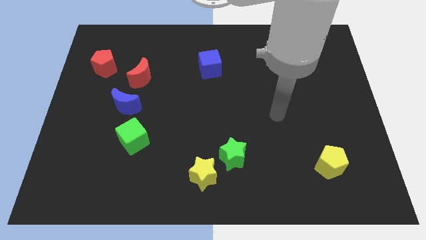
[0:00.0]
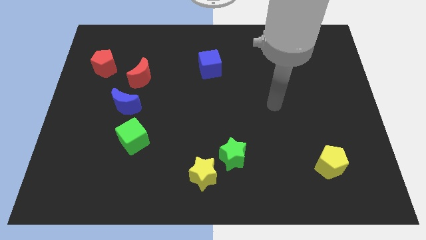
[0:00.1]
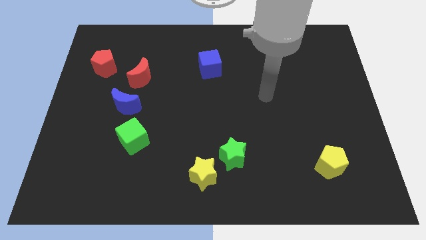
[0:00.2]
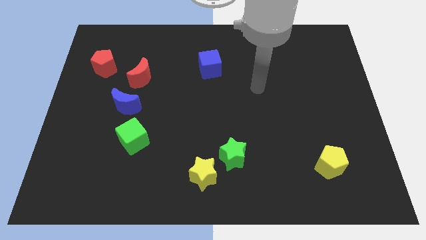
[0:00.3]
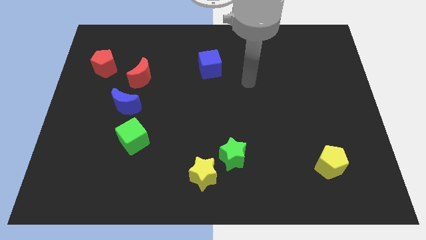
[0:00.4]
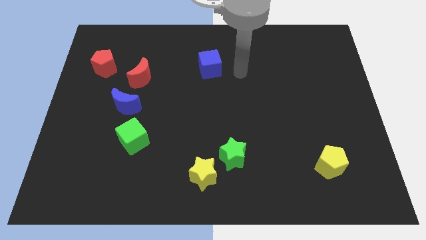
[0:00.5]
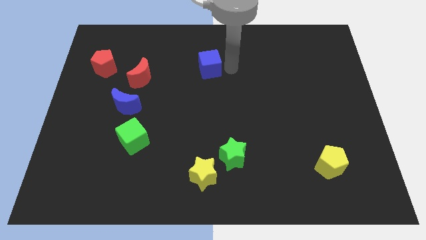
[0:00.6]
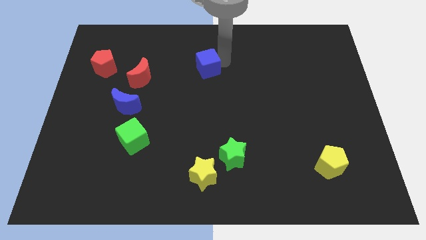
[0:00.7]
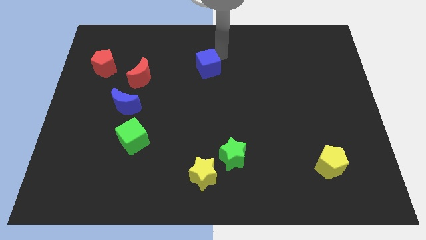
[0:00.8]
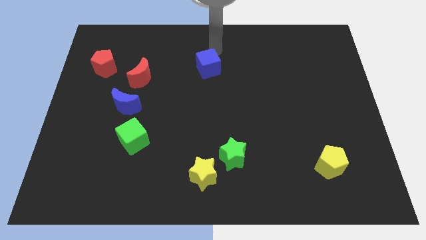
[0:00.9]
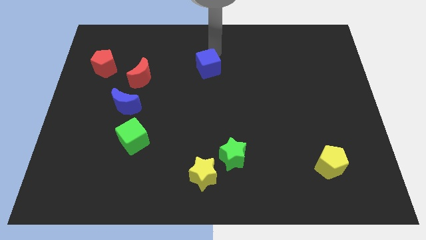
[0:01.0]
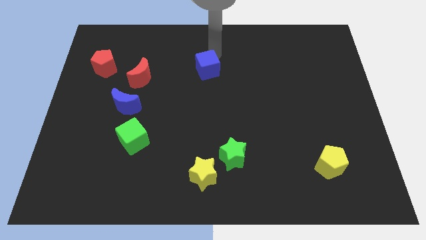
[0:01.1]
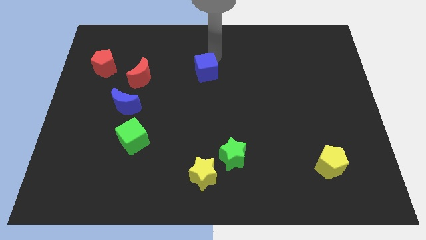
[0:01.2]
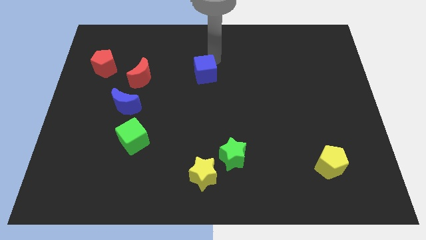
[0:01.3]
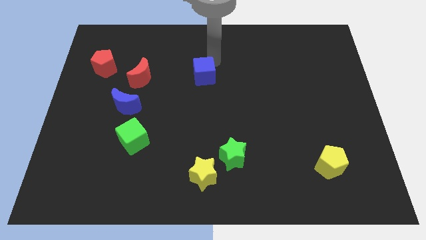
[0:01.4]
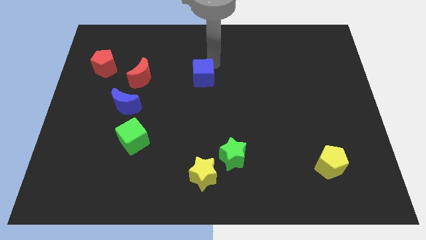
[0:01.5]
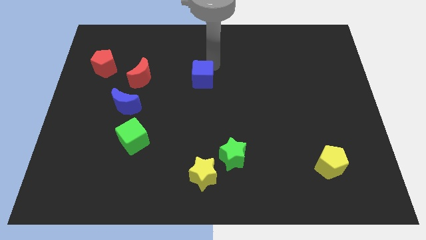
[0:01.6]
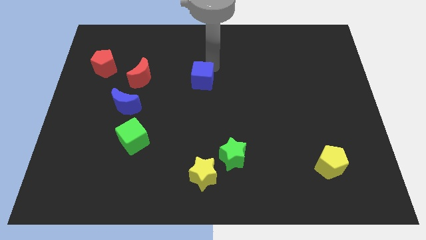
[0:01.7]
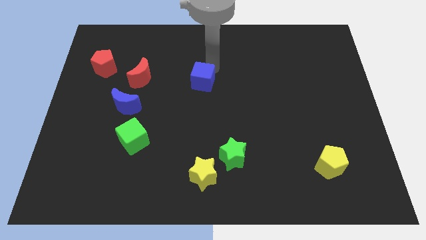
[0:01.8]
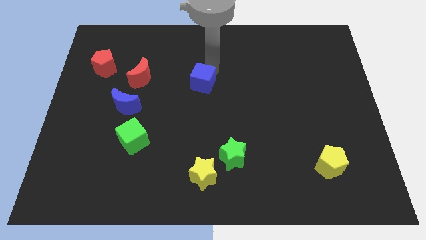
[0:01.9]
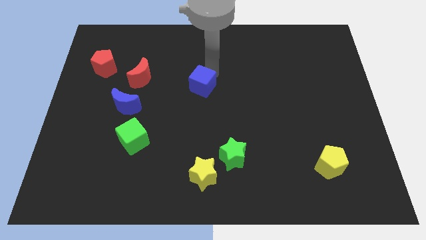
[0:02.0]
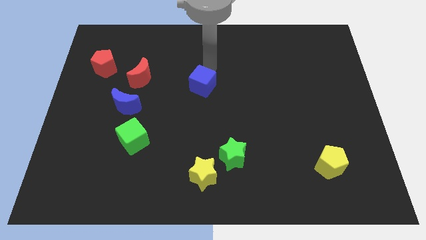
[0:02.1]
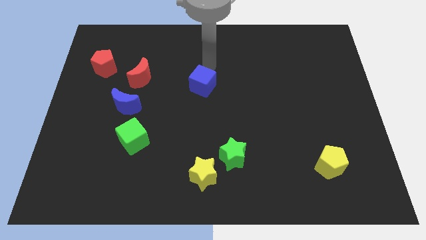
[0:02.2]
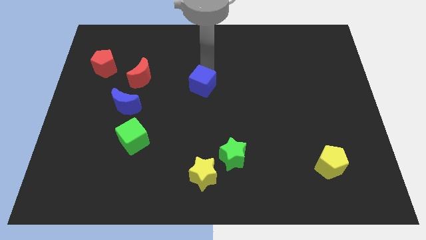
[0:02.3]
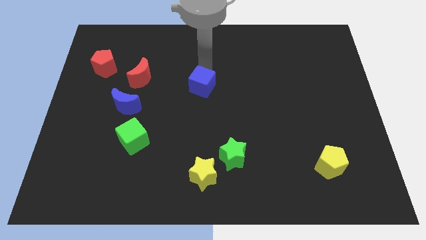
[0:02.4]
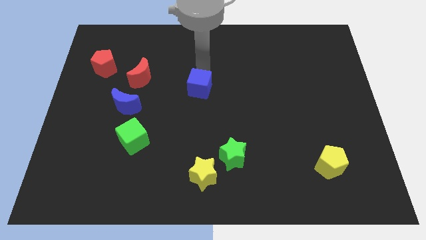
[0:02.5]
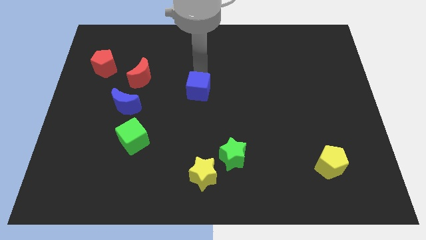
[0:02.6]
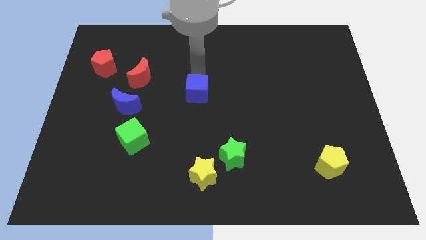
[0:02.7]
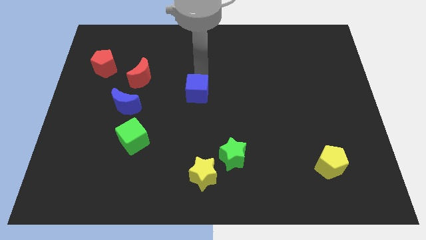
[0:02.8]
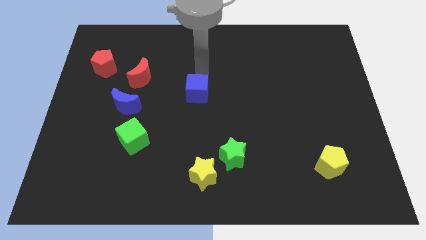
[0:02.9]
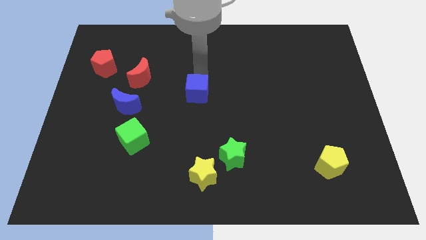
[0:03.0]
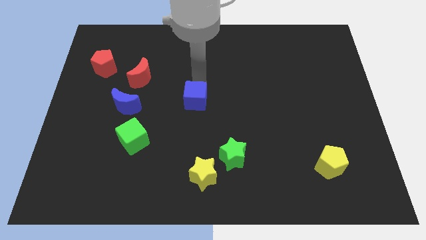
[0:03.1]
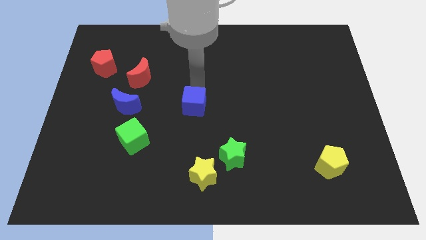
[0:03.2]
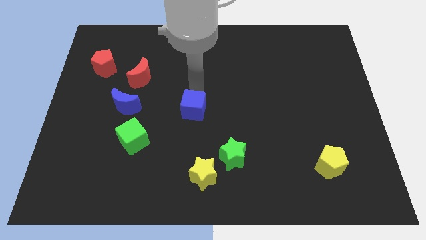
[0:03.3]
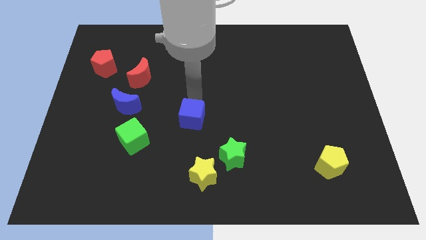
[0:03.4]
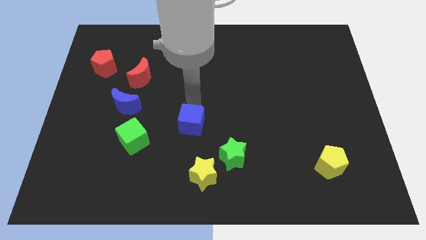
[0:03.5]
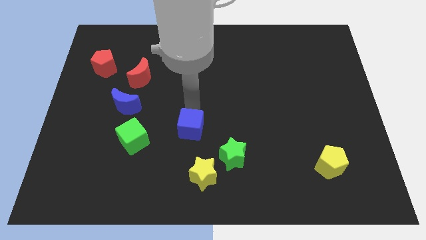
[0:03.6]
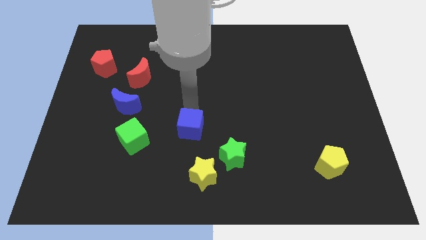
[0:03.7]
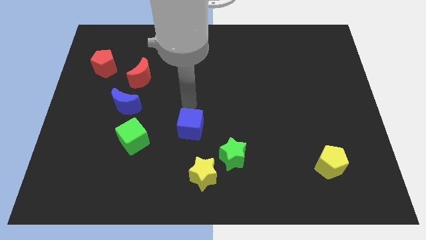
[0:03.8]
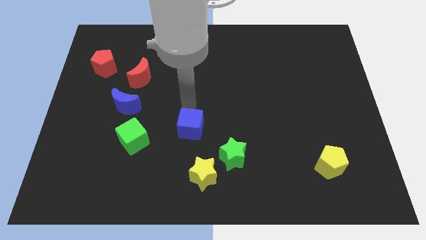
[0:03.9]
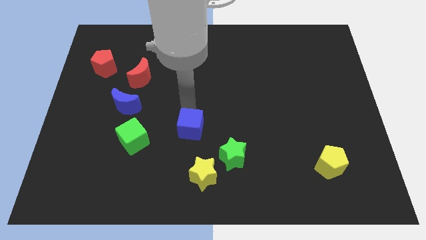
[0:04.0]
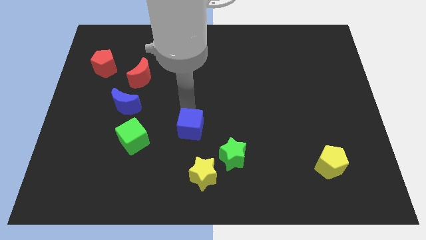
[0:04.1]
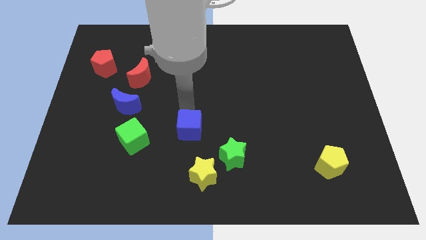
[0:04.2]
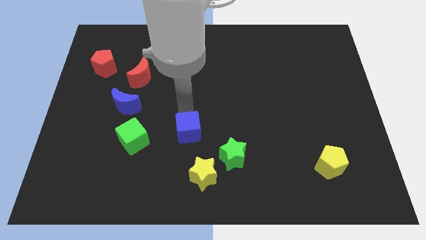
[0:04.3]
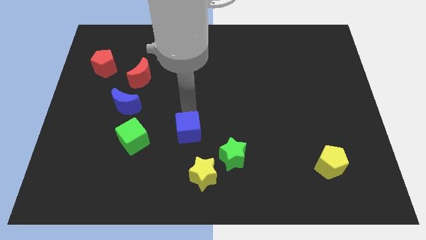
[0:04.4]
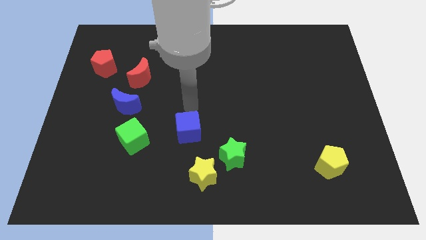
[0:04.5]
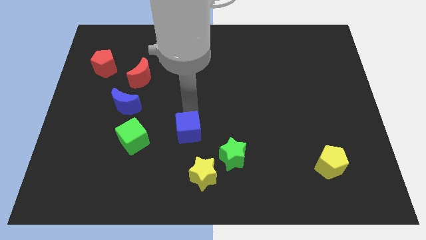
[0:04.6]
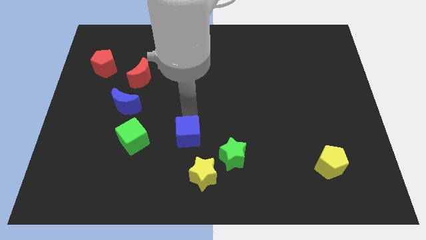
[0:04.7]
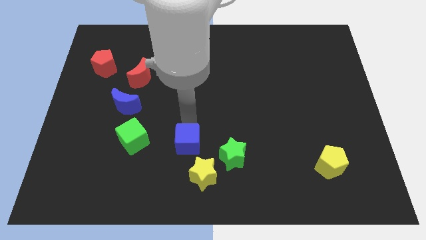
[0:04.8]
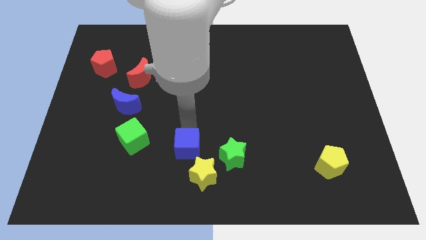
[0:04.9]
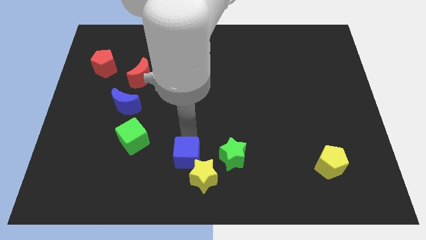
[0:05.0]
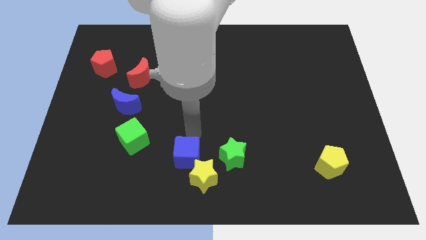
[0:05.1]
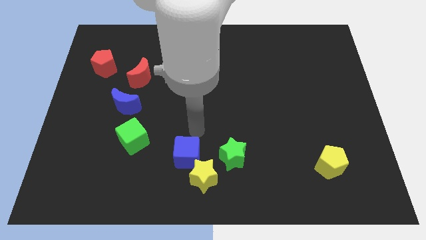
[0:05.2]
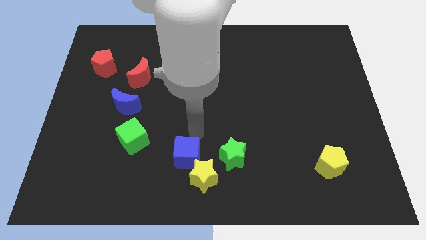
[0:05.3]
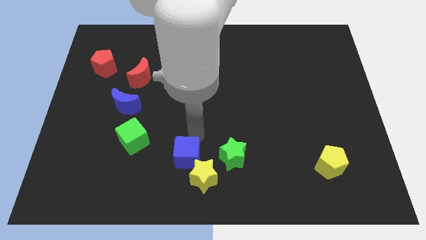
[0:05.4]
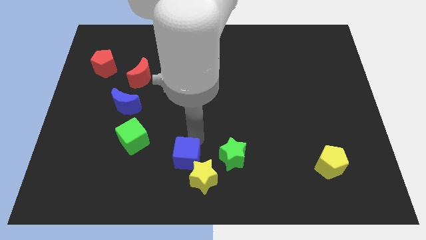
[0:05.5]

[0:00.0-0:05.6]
move the blue cube to the bottom side

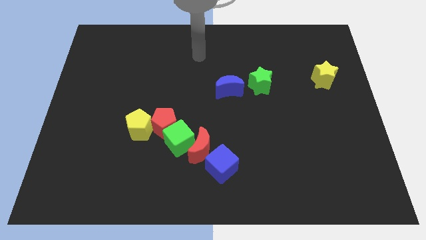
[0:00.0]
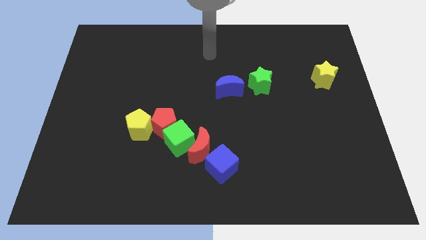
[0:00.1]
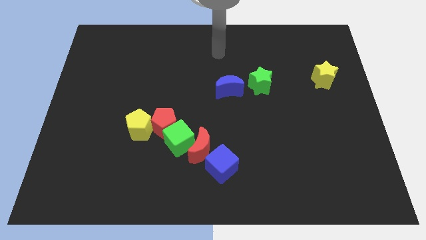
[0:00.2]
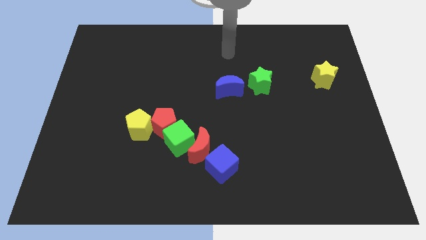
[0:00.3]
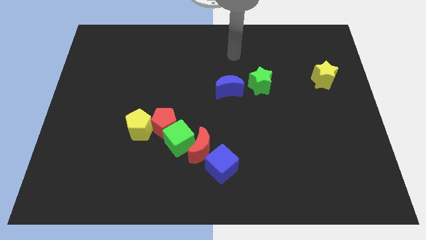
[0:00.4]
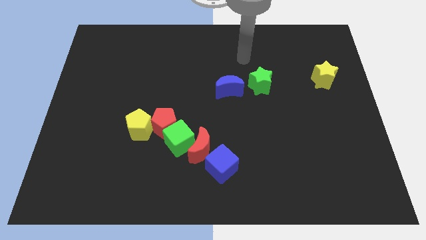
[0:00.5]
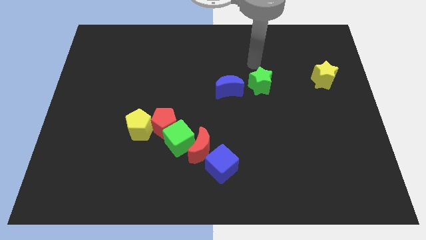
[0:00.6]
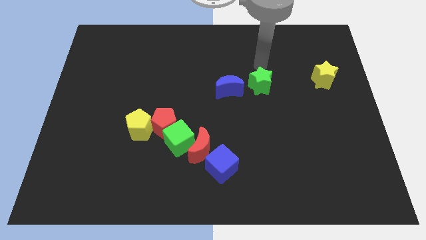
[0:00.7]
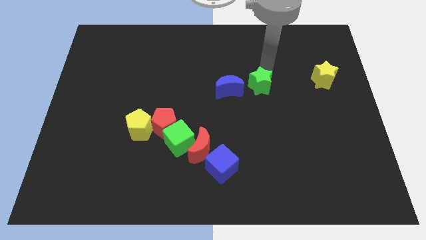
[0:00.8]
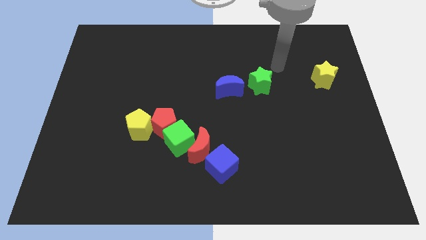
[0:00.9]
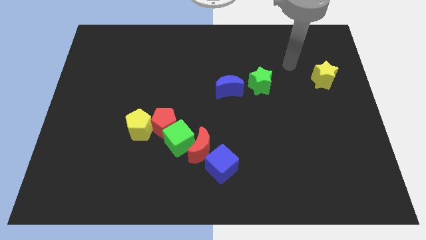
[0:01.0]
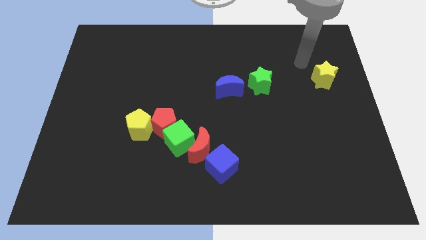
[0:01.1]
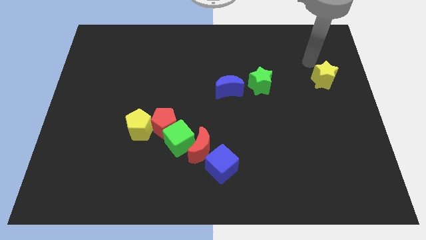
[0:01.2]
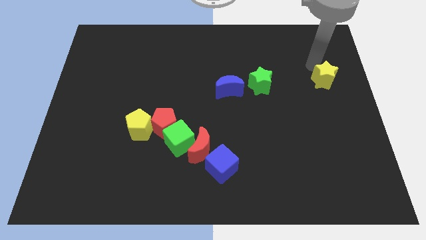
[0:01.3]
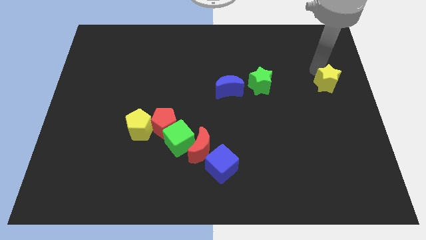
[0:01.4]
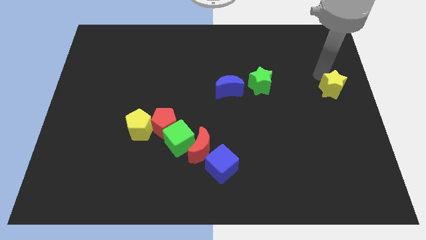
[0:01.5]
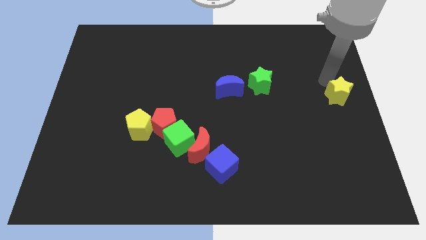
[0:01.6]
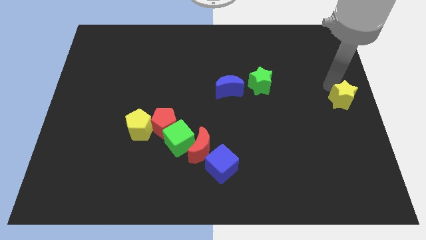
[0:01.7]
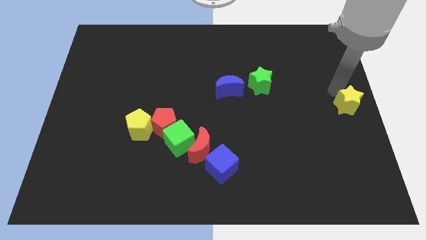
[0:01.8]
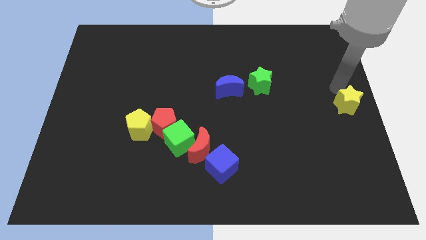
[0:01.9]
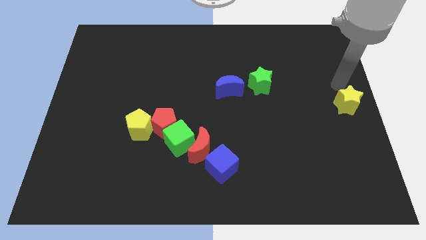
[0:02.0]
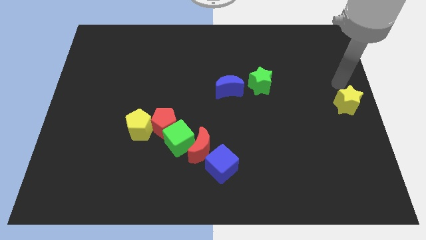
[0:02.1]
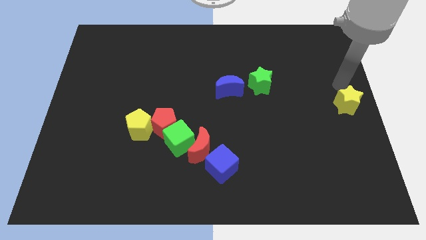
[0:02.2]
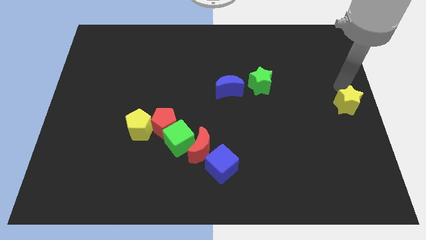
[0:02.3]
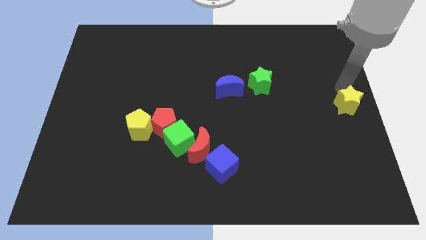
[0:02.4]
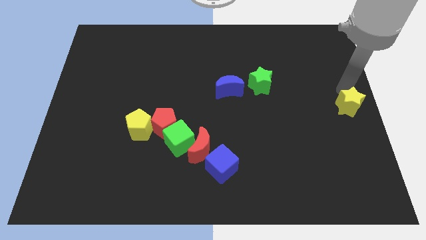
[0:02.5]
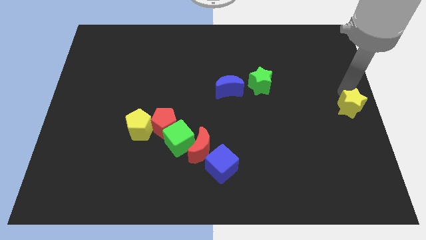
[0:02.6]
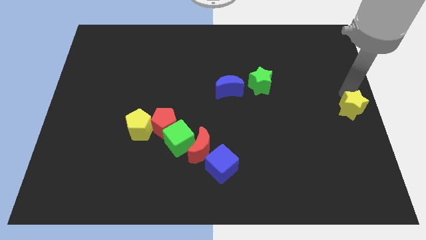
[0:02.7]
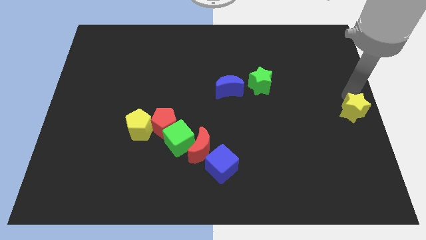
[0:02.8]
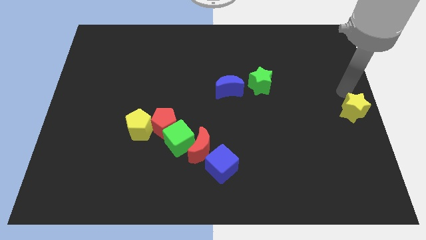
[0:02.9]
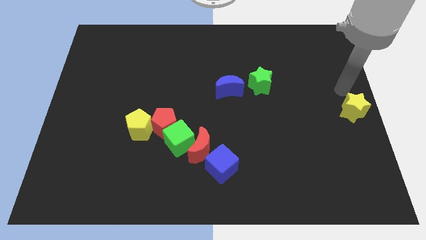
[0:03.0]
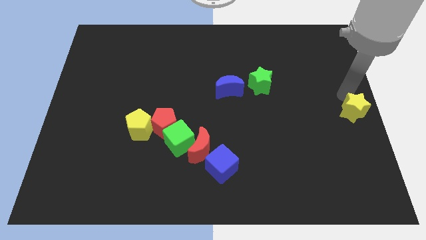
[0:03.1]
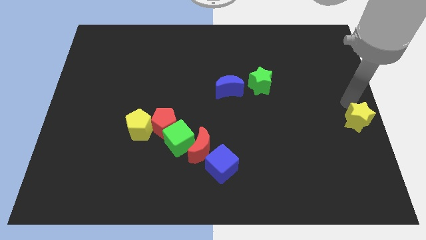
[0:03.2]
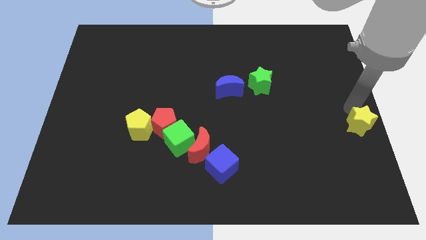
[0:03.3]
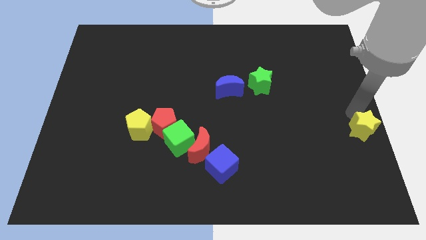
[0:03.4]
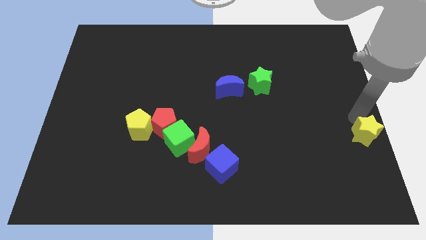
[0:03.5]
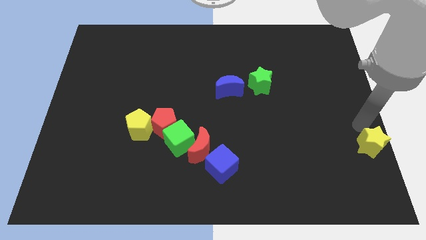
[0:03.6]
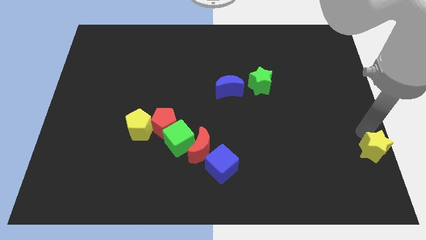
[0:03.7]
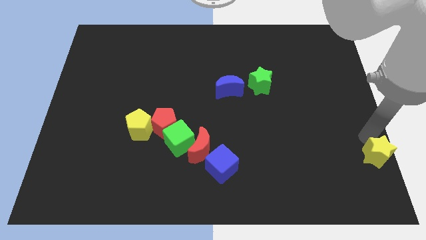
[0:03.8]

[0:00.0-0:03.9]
push the yellow star to the lower right corner
